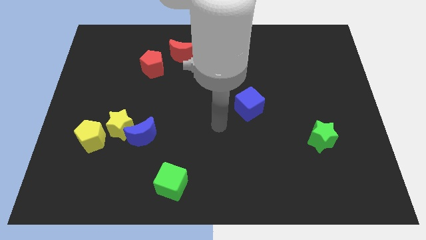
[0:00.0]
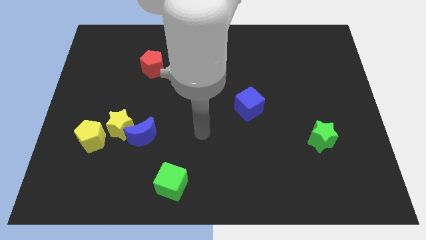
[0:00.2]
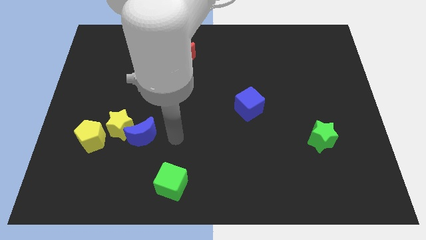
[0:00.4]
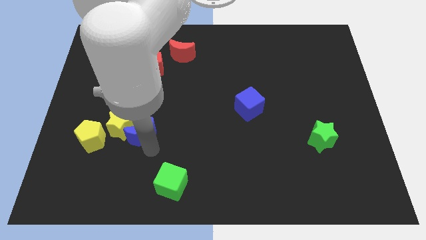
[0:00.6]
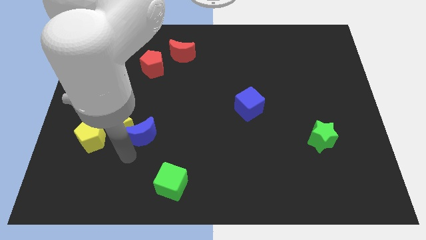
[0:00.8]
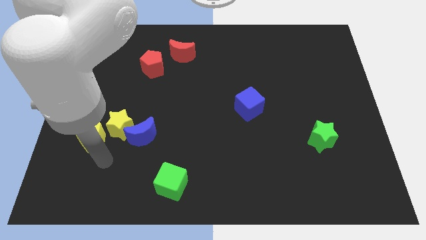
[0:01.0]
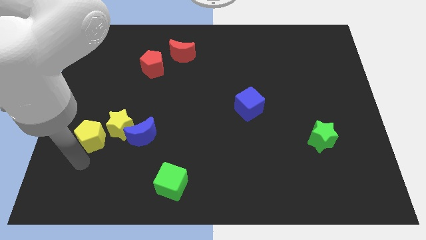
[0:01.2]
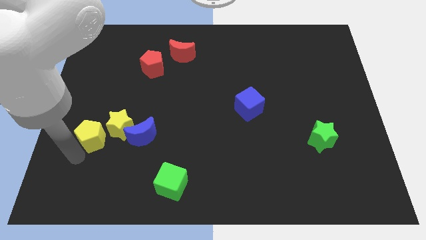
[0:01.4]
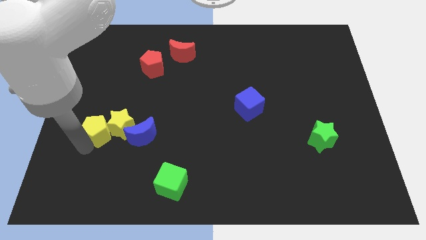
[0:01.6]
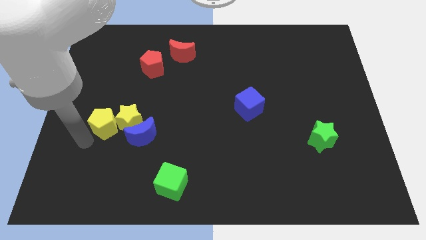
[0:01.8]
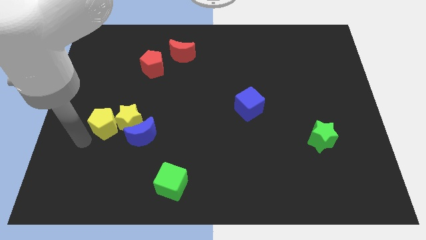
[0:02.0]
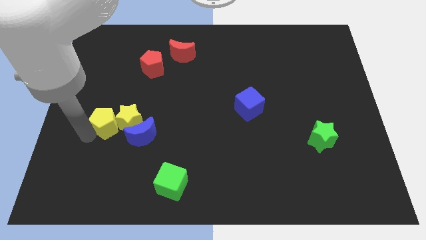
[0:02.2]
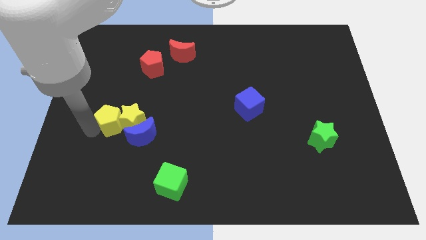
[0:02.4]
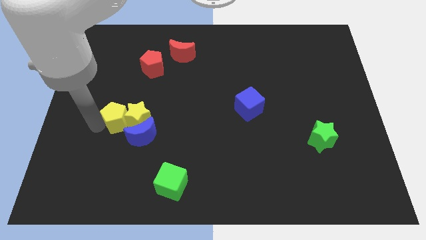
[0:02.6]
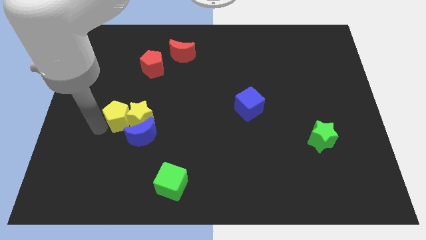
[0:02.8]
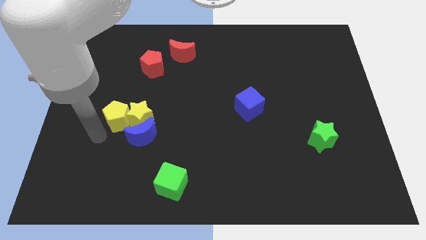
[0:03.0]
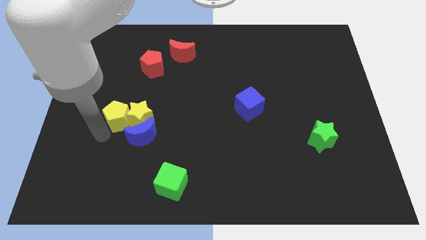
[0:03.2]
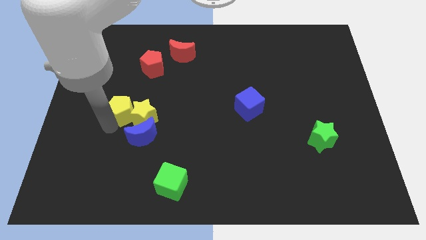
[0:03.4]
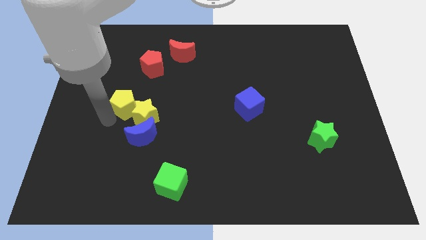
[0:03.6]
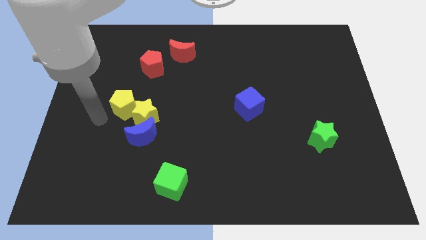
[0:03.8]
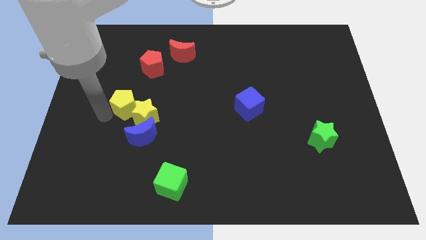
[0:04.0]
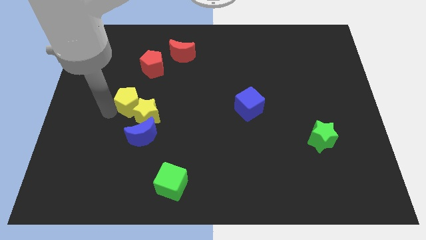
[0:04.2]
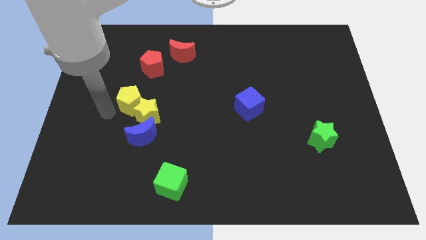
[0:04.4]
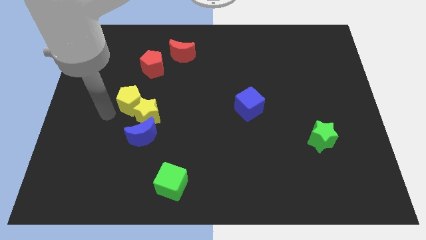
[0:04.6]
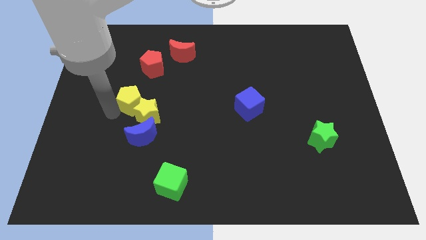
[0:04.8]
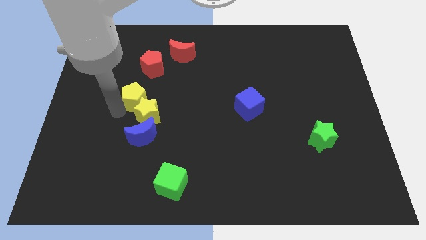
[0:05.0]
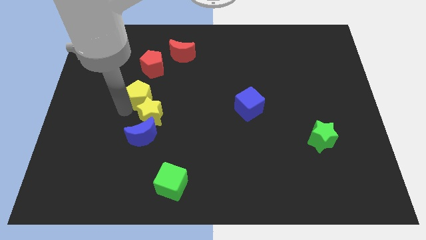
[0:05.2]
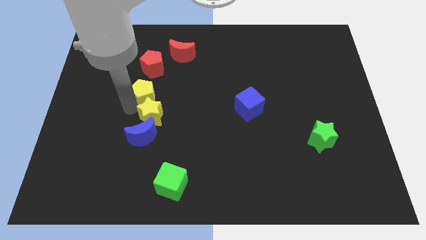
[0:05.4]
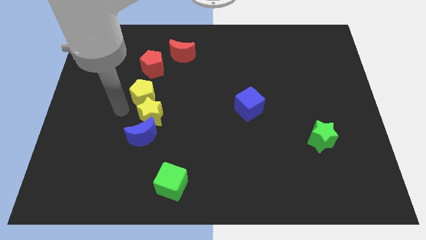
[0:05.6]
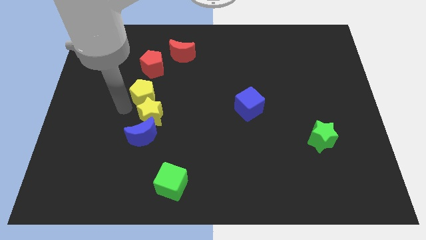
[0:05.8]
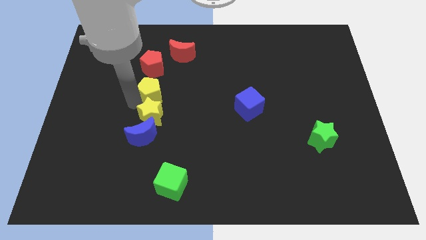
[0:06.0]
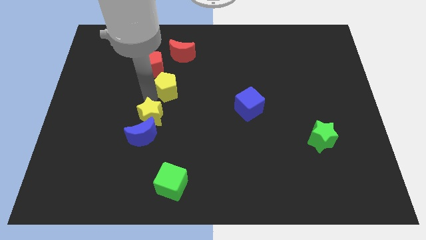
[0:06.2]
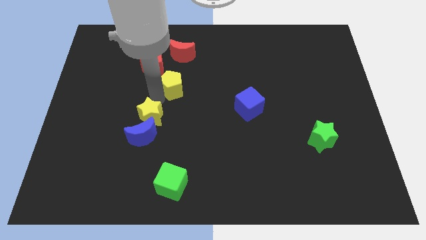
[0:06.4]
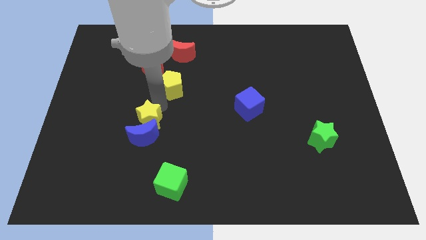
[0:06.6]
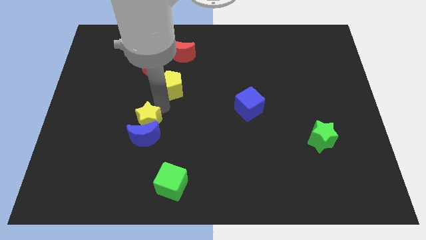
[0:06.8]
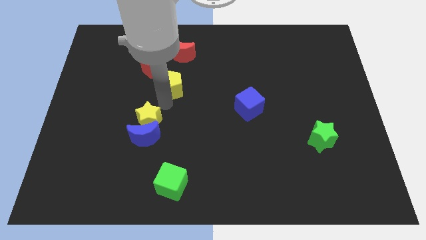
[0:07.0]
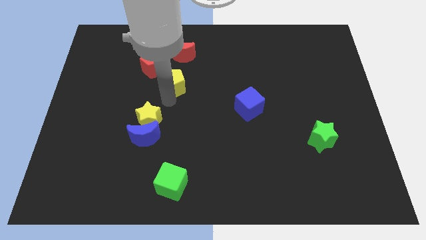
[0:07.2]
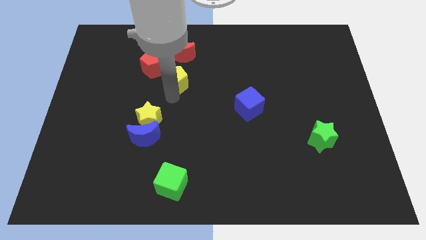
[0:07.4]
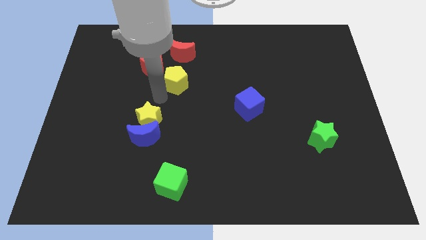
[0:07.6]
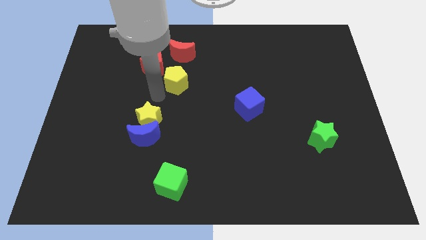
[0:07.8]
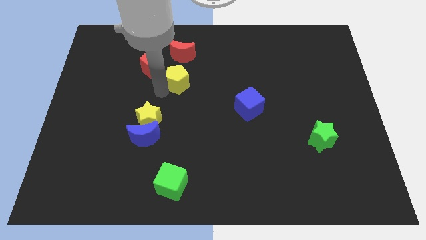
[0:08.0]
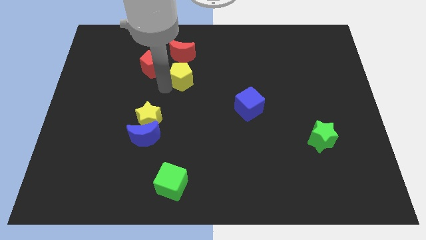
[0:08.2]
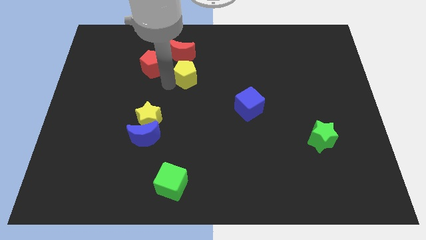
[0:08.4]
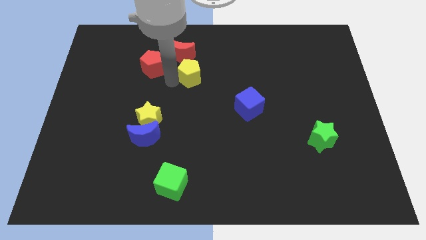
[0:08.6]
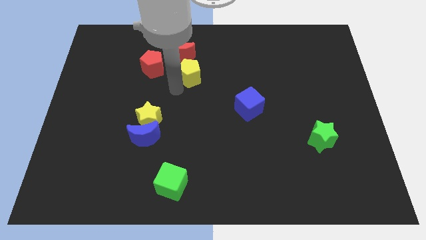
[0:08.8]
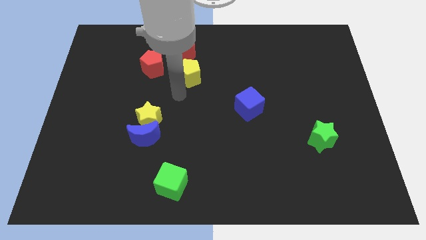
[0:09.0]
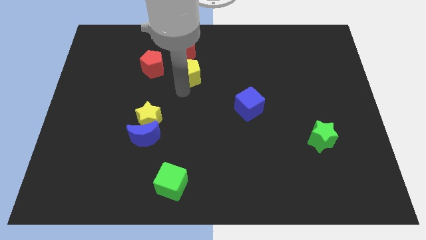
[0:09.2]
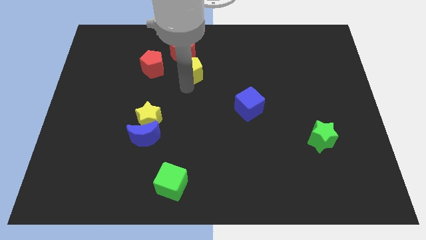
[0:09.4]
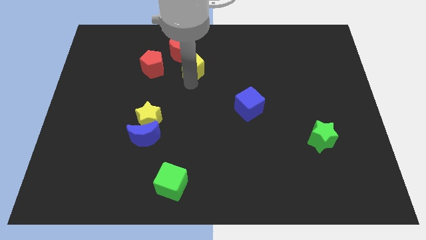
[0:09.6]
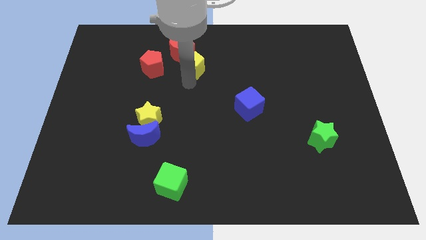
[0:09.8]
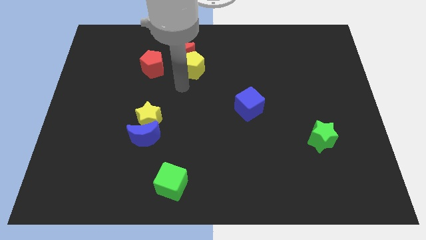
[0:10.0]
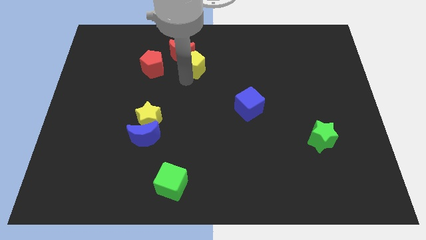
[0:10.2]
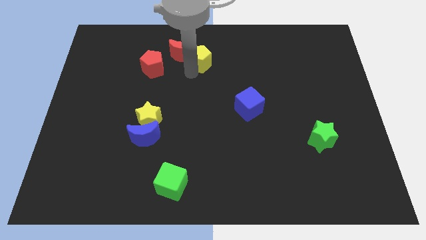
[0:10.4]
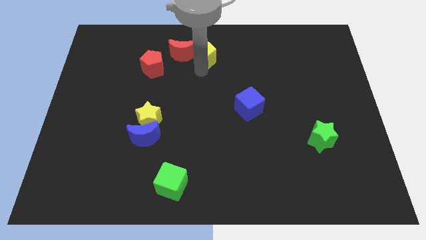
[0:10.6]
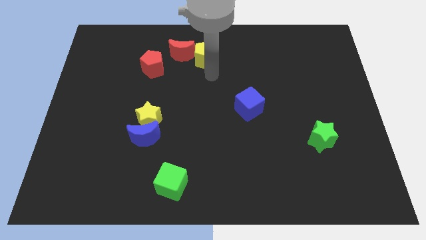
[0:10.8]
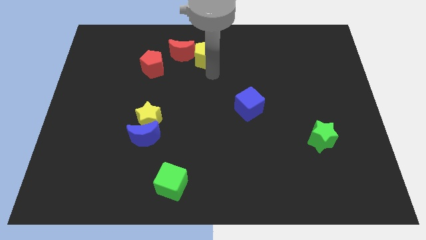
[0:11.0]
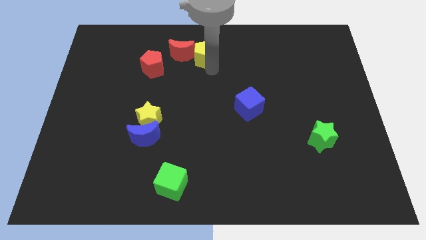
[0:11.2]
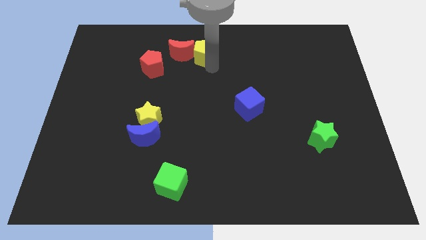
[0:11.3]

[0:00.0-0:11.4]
slide the yellow pentagon to the top side

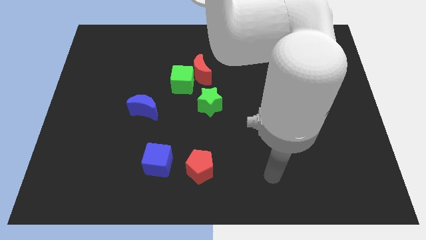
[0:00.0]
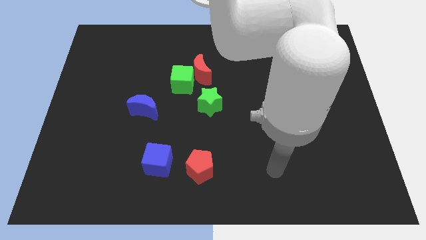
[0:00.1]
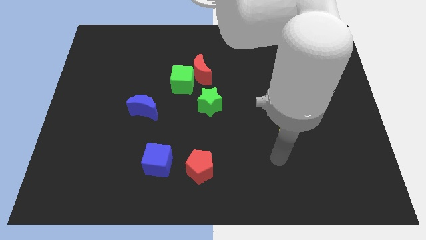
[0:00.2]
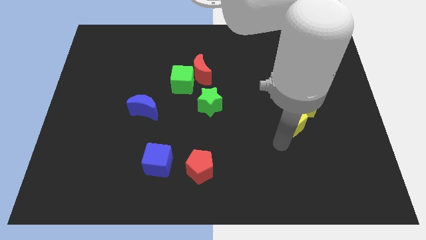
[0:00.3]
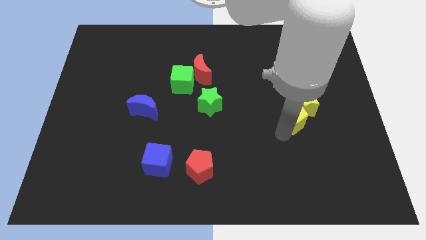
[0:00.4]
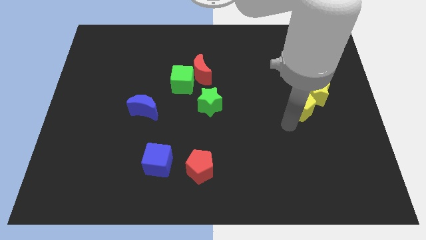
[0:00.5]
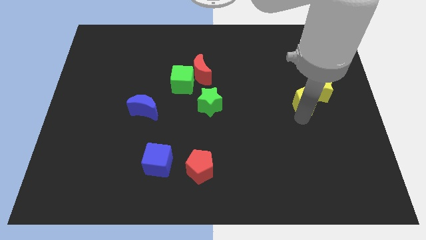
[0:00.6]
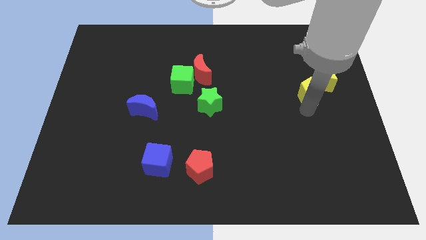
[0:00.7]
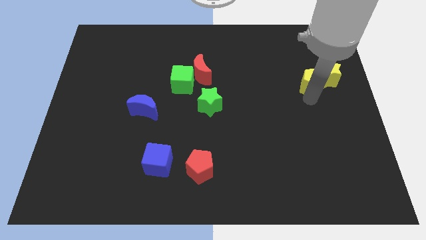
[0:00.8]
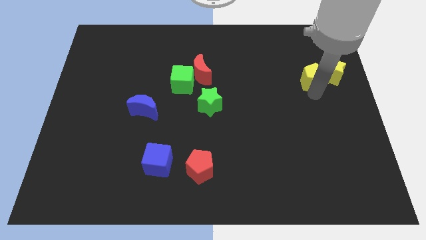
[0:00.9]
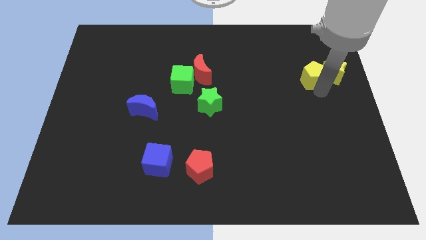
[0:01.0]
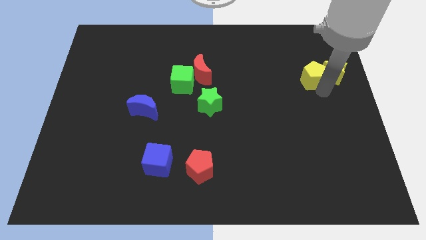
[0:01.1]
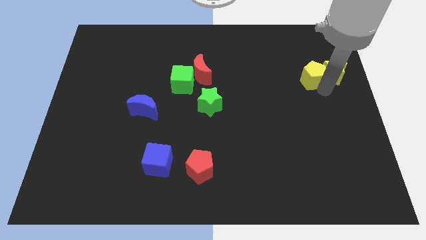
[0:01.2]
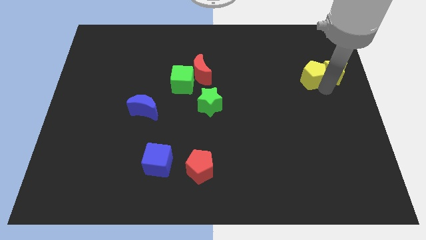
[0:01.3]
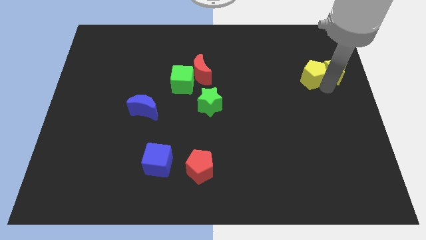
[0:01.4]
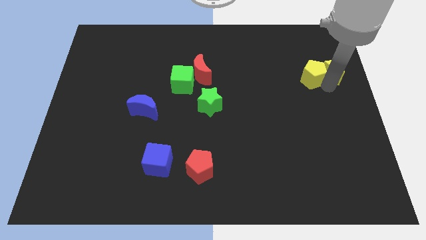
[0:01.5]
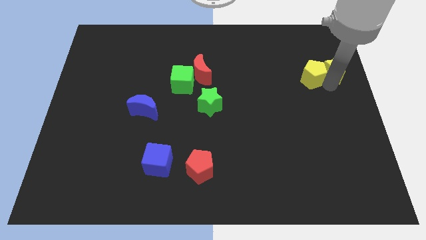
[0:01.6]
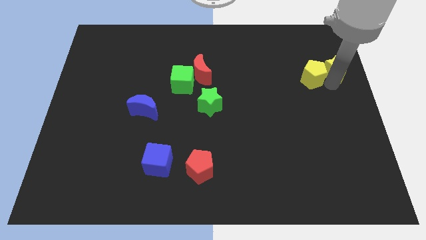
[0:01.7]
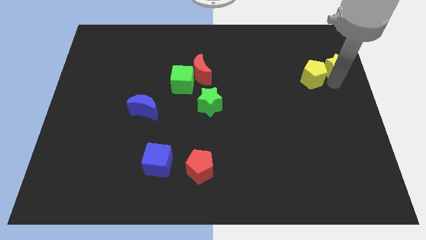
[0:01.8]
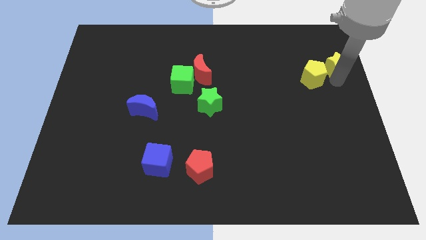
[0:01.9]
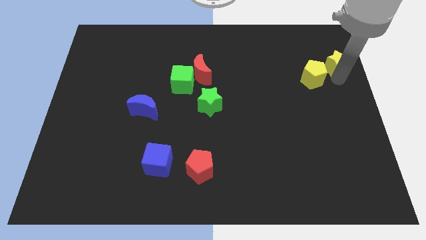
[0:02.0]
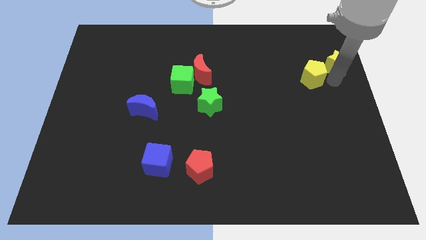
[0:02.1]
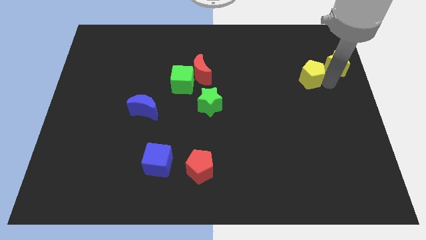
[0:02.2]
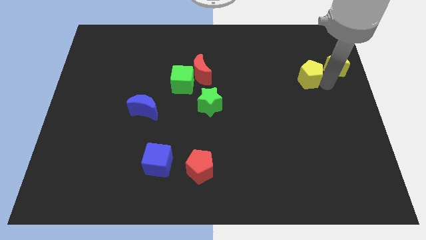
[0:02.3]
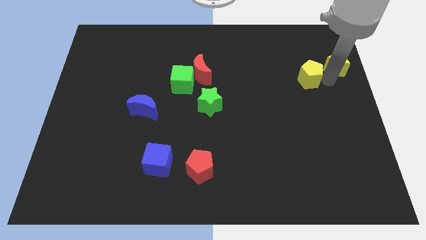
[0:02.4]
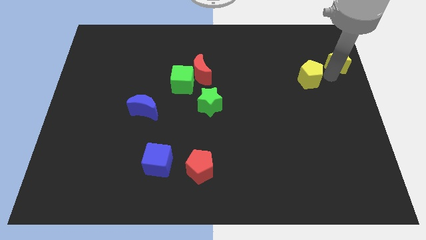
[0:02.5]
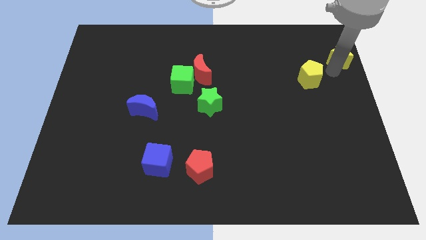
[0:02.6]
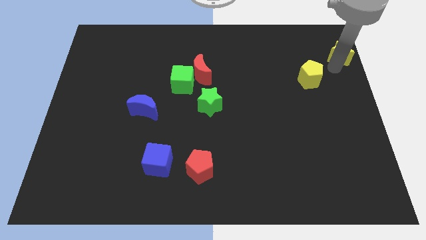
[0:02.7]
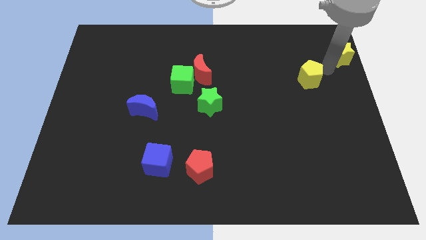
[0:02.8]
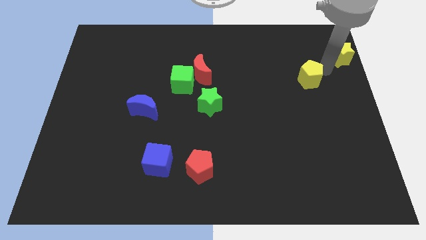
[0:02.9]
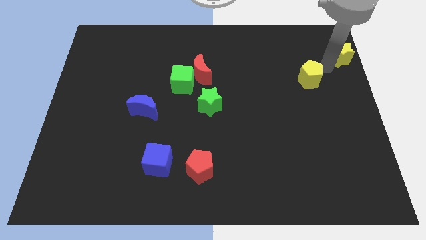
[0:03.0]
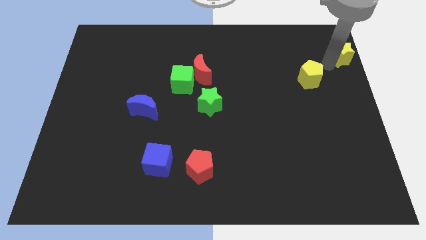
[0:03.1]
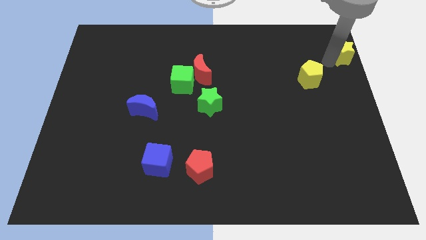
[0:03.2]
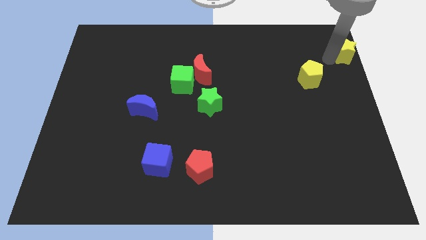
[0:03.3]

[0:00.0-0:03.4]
put the yellow star to the top right corner
